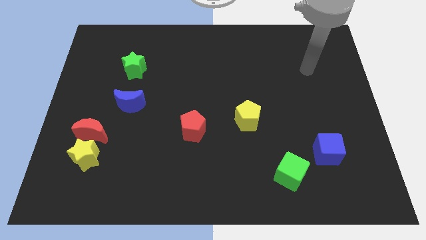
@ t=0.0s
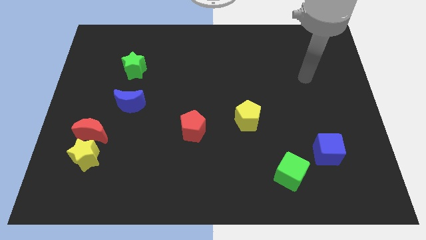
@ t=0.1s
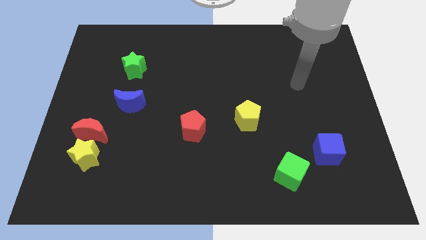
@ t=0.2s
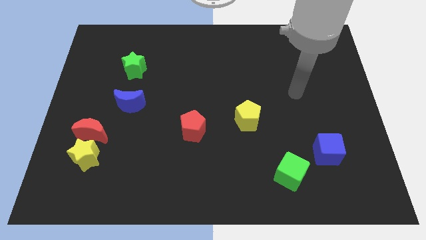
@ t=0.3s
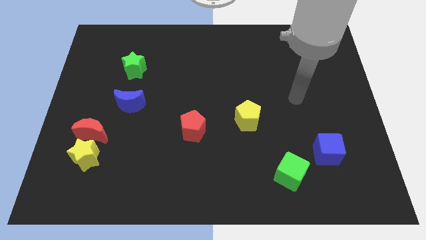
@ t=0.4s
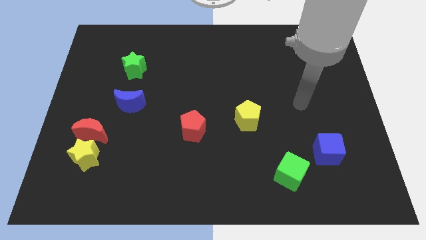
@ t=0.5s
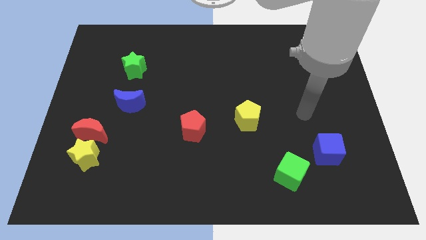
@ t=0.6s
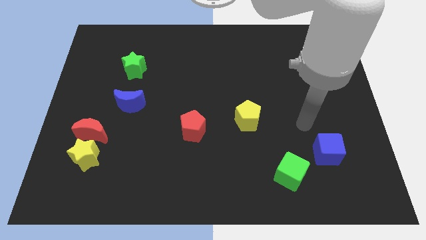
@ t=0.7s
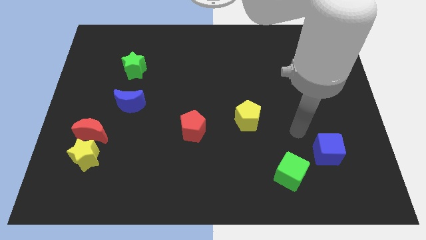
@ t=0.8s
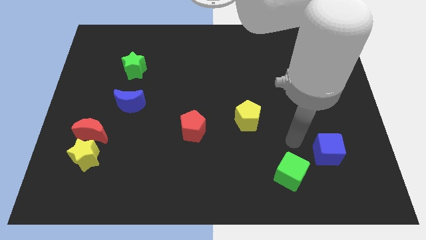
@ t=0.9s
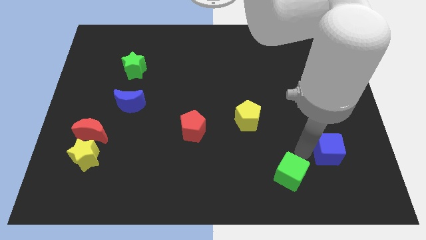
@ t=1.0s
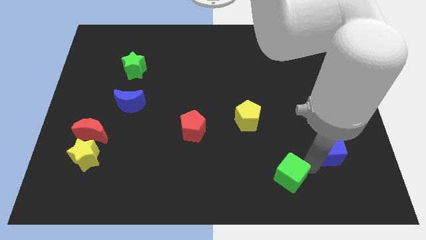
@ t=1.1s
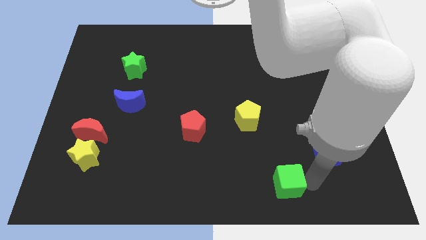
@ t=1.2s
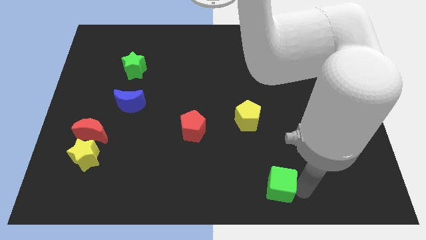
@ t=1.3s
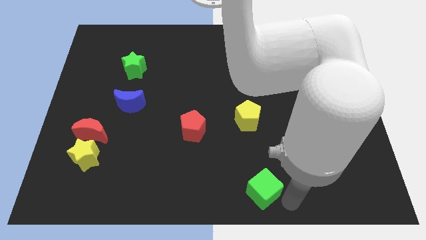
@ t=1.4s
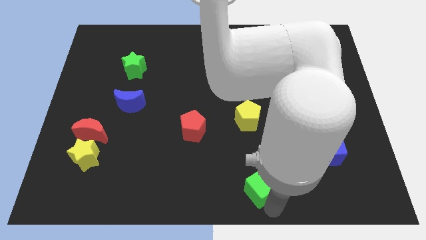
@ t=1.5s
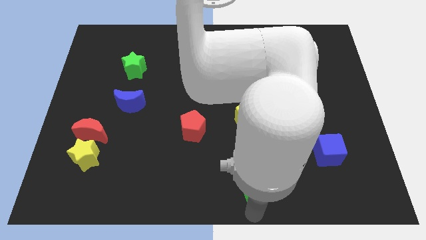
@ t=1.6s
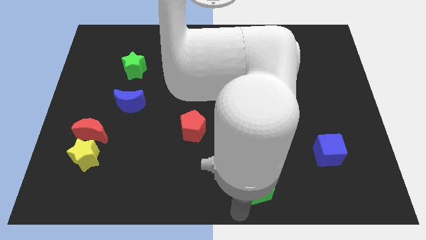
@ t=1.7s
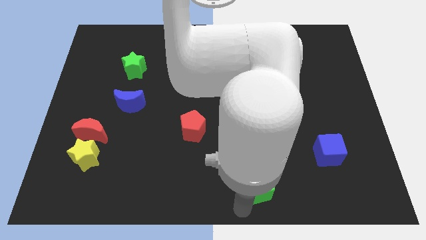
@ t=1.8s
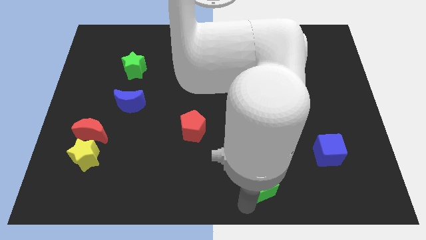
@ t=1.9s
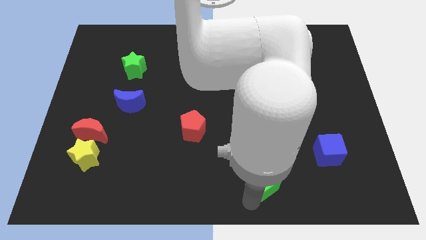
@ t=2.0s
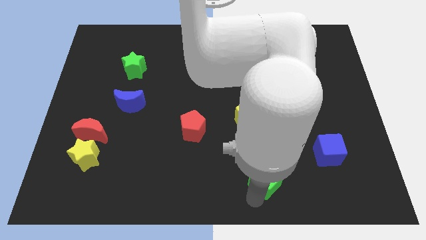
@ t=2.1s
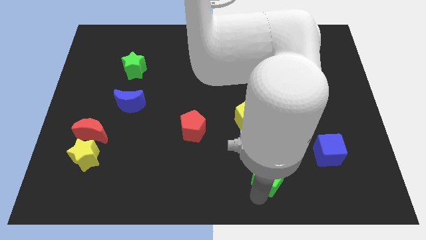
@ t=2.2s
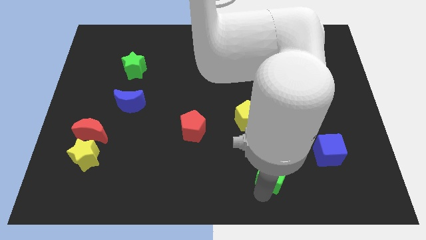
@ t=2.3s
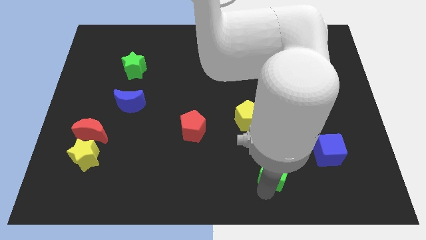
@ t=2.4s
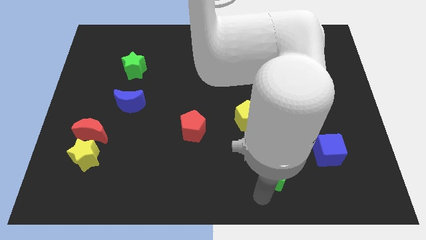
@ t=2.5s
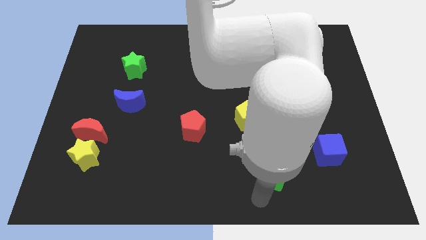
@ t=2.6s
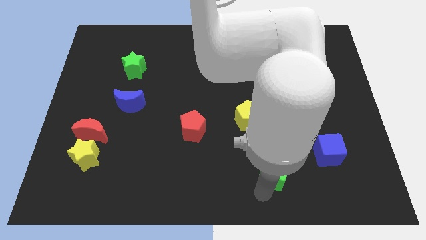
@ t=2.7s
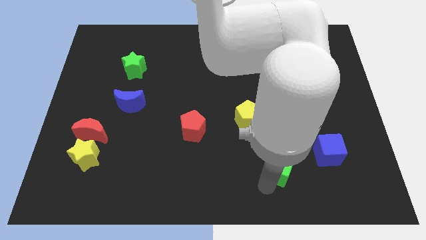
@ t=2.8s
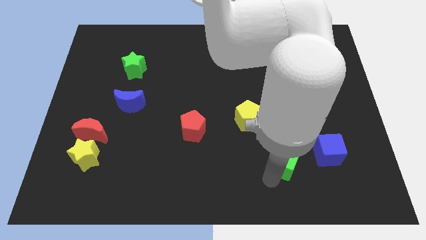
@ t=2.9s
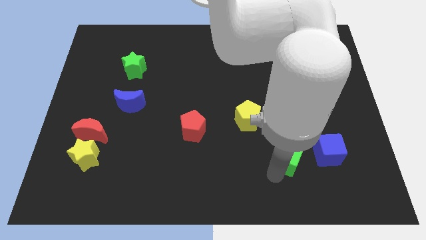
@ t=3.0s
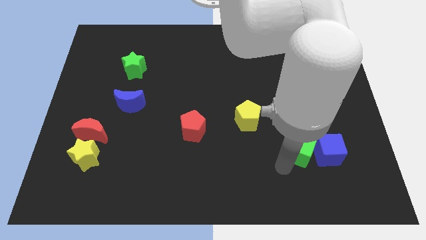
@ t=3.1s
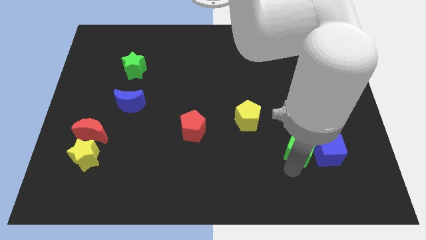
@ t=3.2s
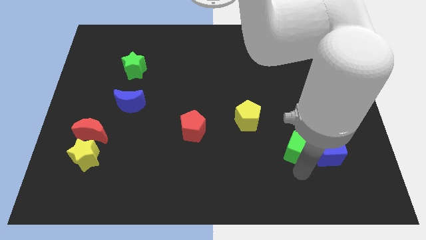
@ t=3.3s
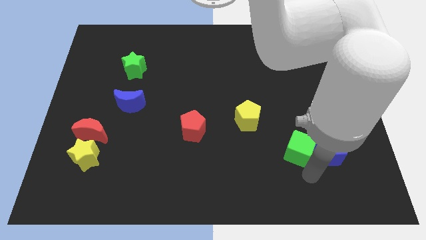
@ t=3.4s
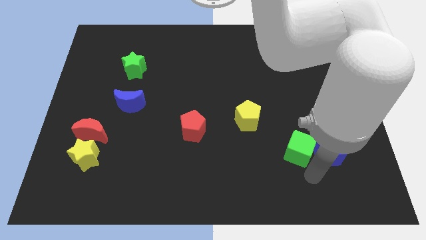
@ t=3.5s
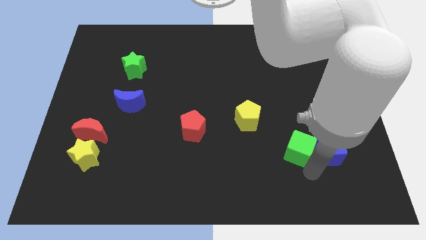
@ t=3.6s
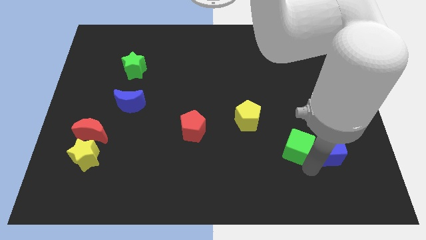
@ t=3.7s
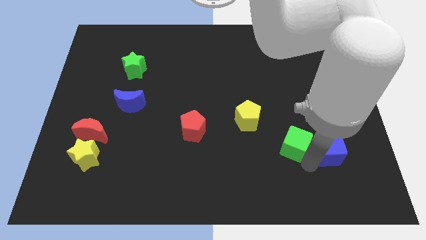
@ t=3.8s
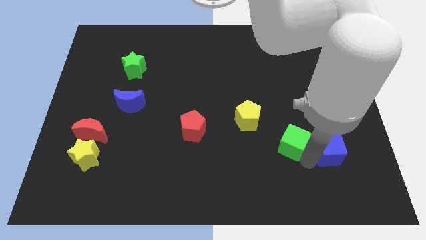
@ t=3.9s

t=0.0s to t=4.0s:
push the green cube a little upwards

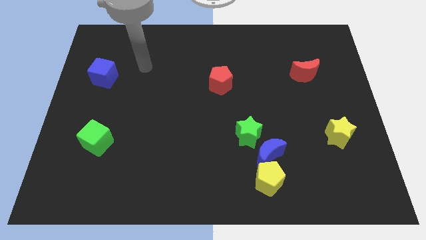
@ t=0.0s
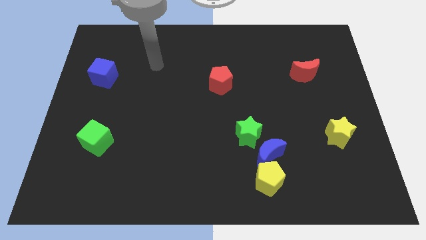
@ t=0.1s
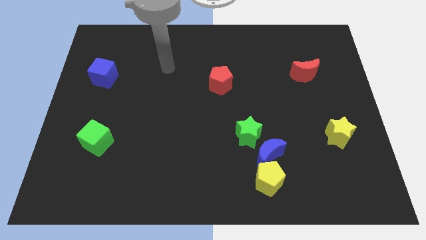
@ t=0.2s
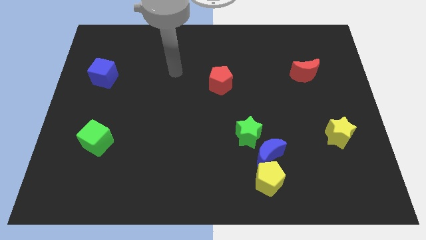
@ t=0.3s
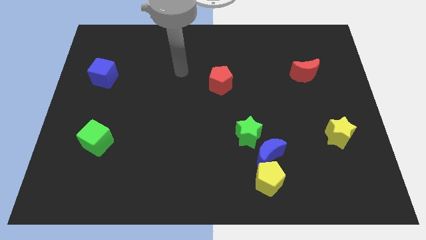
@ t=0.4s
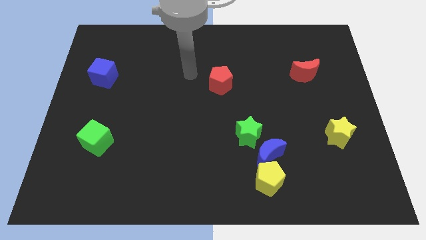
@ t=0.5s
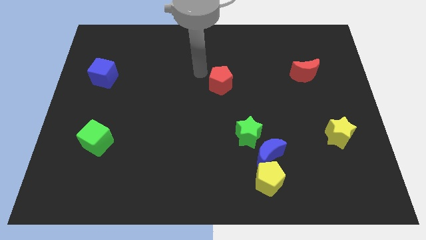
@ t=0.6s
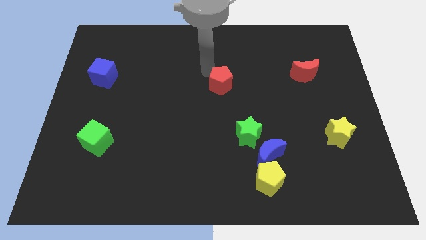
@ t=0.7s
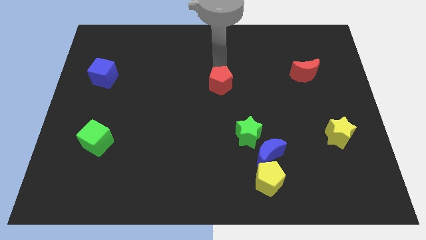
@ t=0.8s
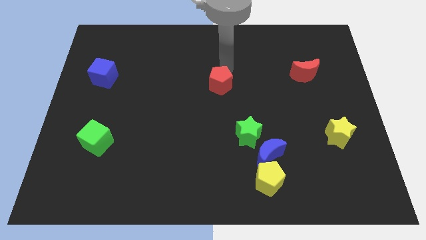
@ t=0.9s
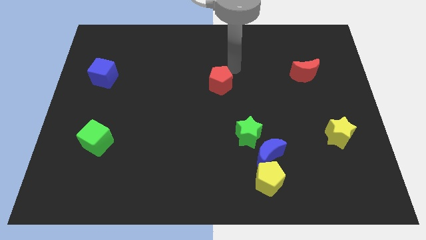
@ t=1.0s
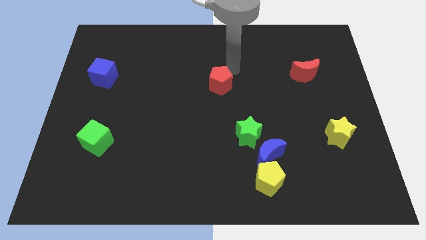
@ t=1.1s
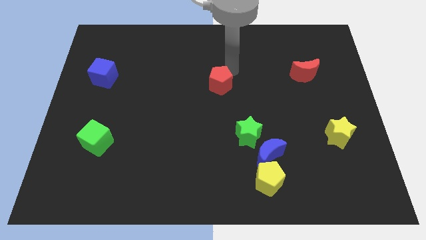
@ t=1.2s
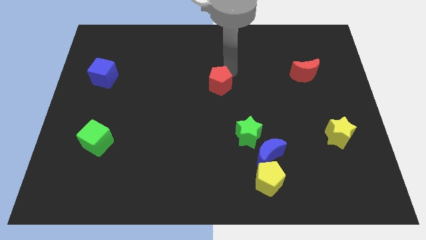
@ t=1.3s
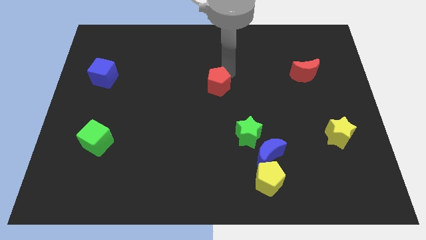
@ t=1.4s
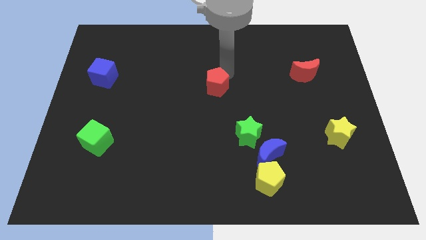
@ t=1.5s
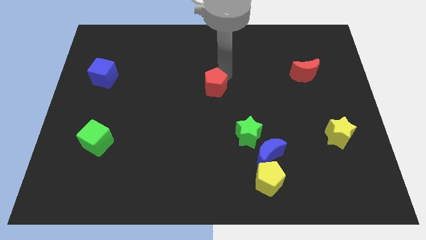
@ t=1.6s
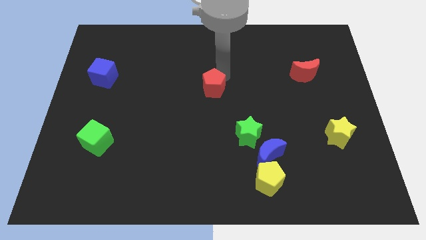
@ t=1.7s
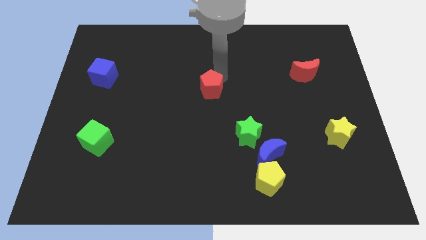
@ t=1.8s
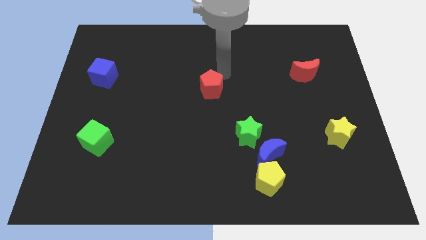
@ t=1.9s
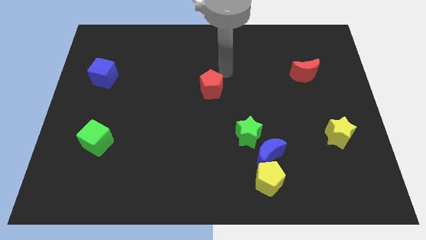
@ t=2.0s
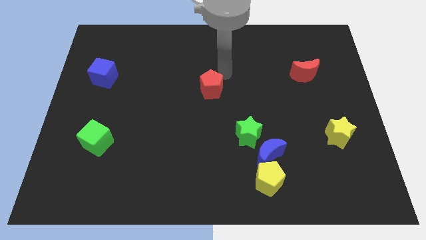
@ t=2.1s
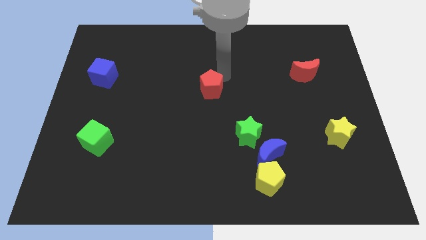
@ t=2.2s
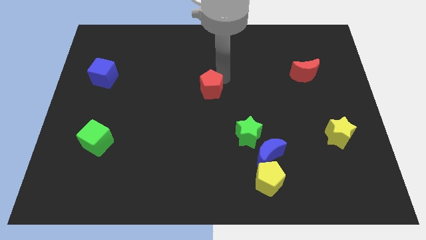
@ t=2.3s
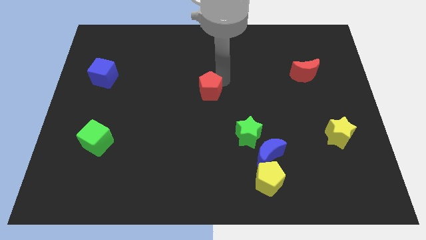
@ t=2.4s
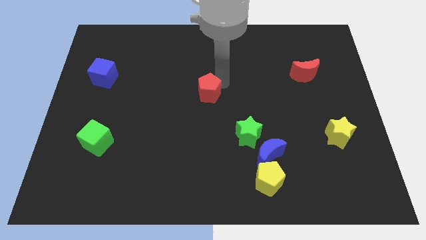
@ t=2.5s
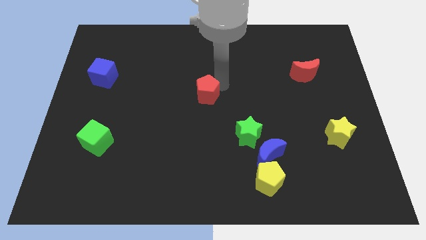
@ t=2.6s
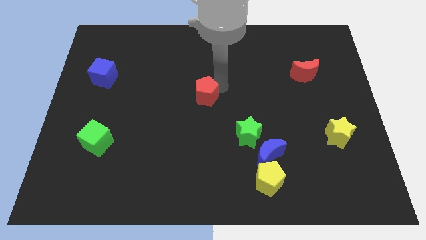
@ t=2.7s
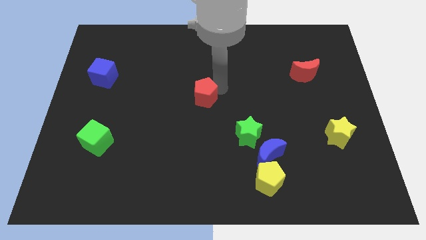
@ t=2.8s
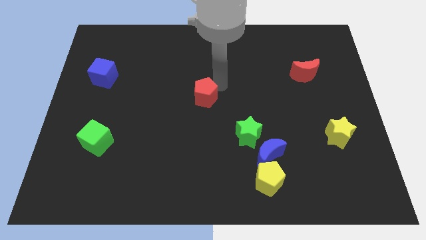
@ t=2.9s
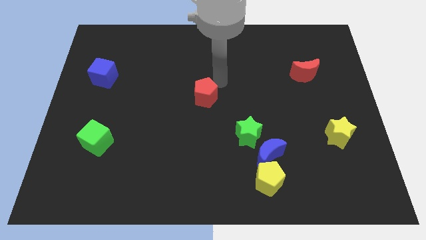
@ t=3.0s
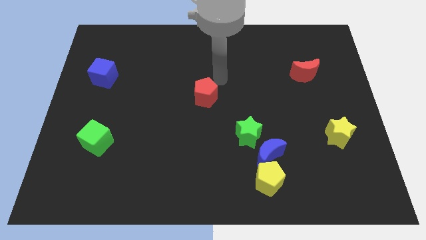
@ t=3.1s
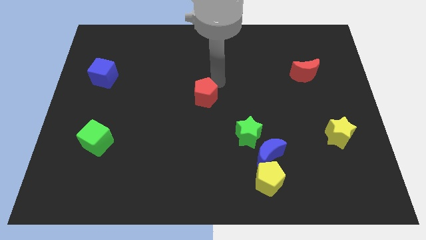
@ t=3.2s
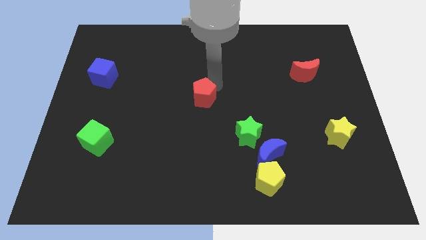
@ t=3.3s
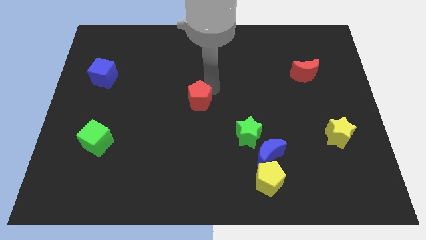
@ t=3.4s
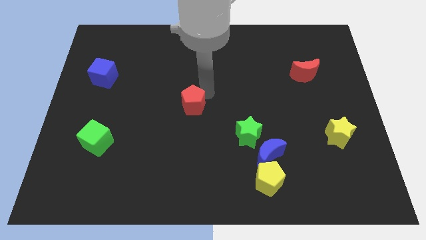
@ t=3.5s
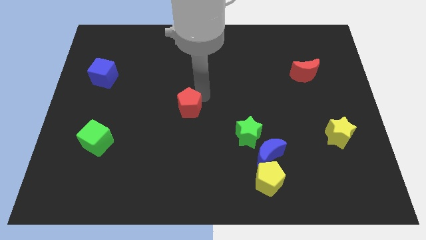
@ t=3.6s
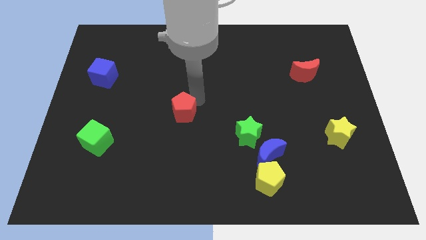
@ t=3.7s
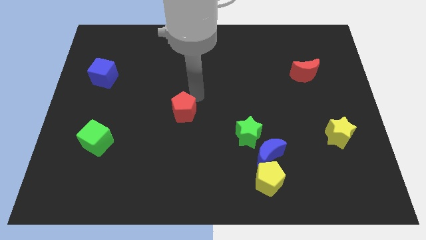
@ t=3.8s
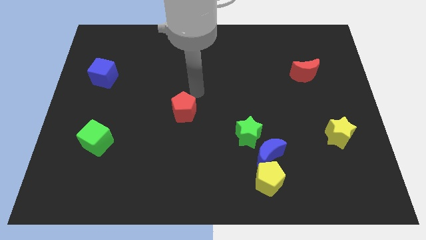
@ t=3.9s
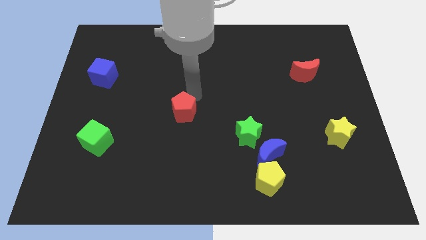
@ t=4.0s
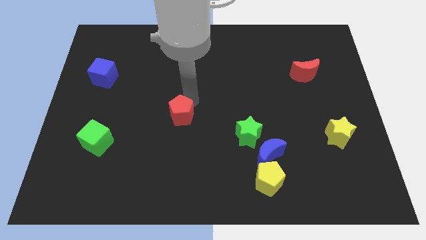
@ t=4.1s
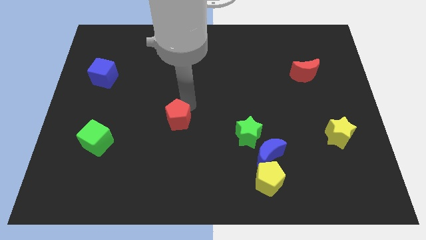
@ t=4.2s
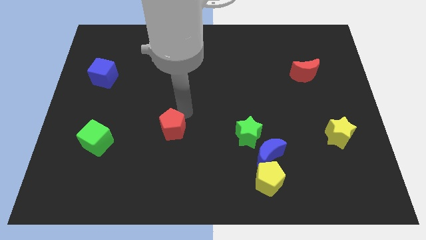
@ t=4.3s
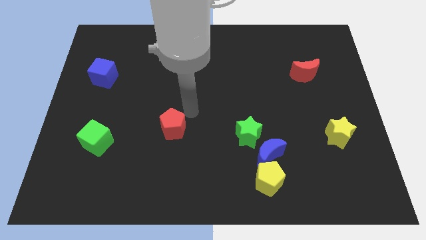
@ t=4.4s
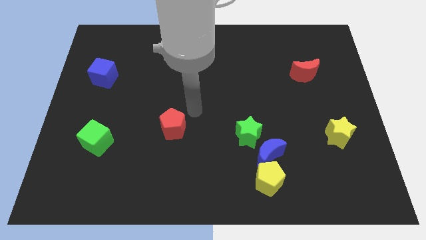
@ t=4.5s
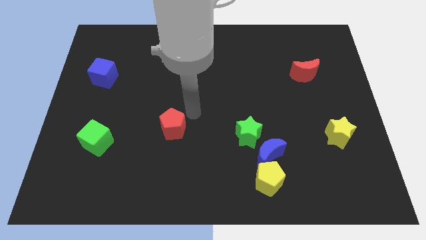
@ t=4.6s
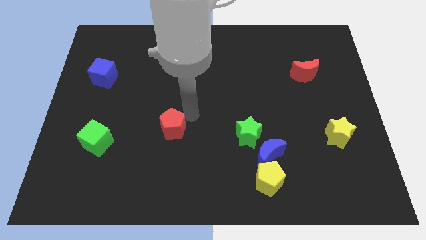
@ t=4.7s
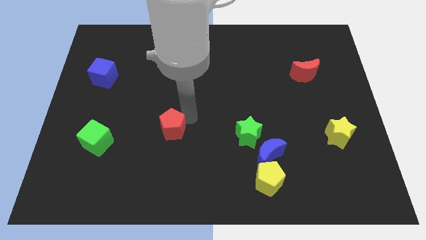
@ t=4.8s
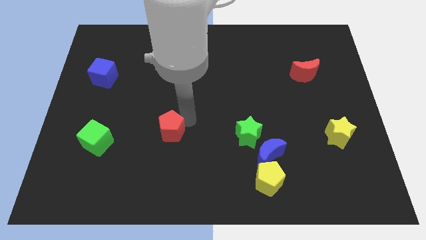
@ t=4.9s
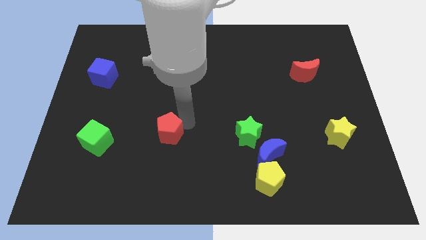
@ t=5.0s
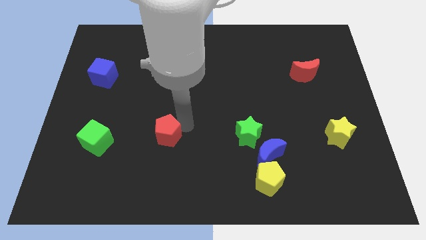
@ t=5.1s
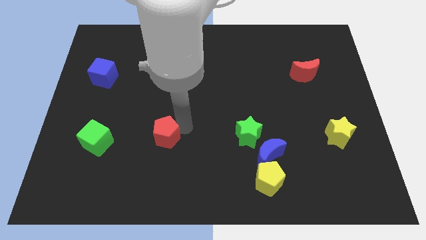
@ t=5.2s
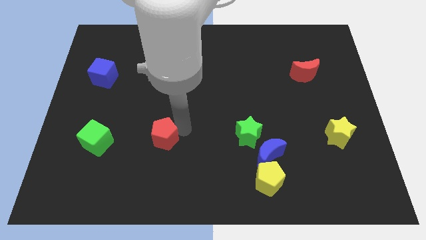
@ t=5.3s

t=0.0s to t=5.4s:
push the red pentagon diagonally down and left
